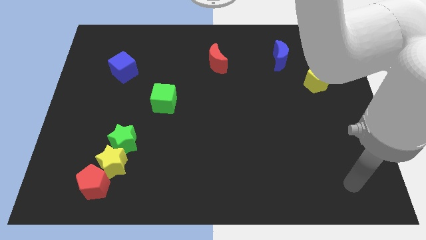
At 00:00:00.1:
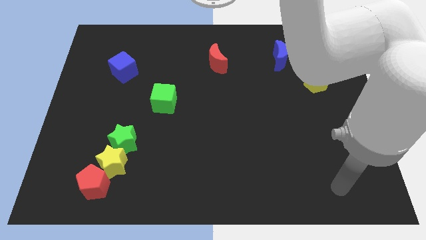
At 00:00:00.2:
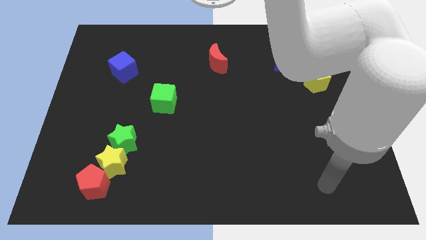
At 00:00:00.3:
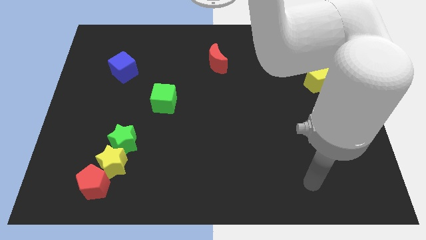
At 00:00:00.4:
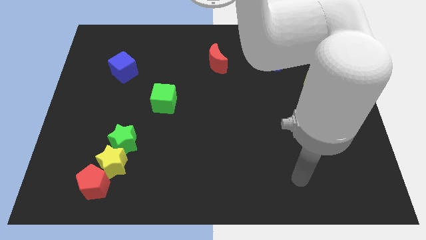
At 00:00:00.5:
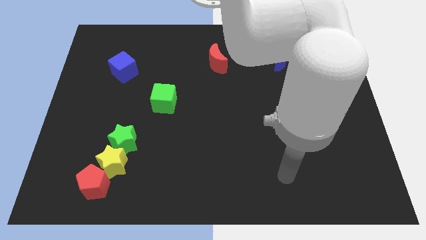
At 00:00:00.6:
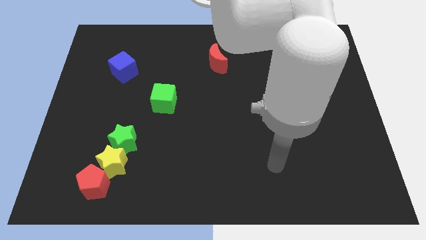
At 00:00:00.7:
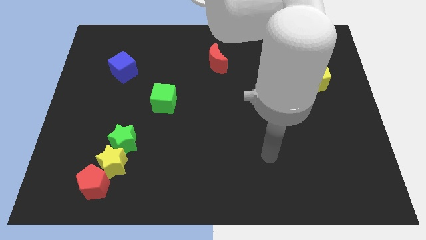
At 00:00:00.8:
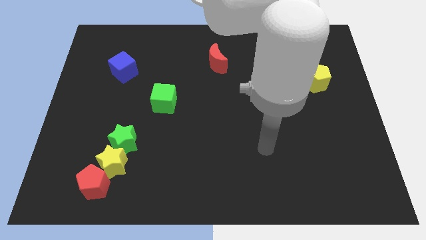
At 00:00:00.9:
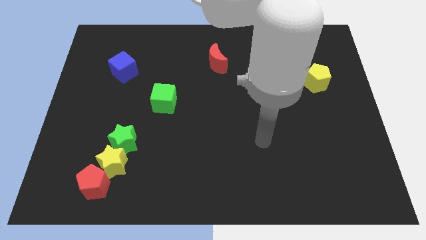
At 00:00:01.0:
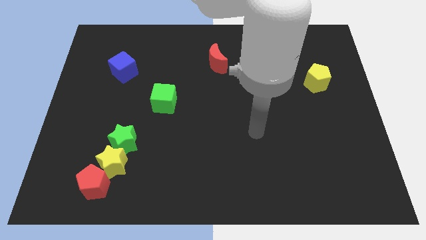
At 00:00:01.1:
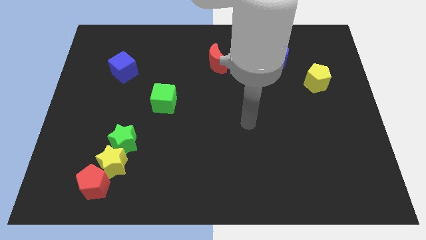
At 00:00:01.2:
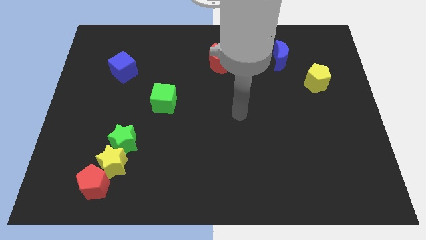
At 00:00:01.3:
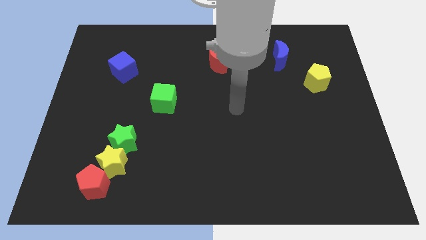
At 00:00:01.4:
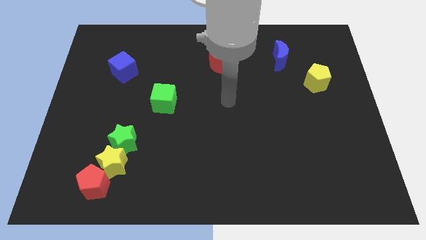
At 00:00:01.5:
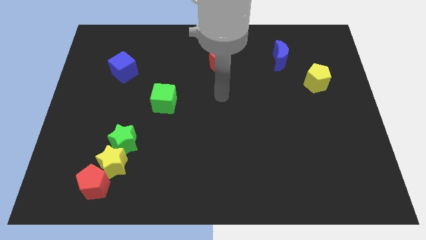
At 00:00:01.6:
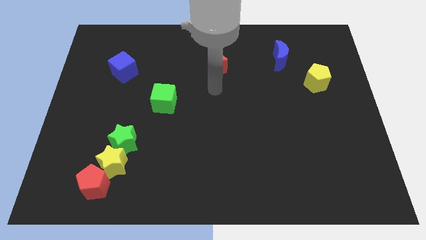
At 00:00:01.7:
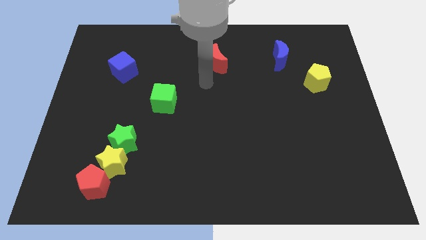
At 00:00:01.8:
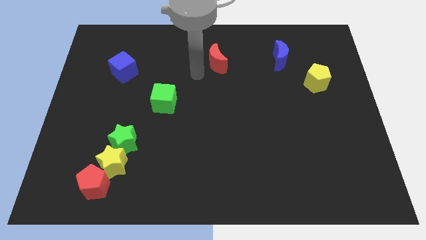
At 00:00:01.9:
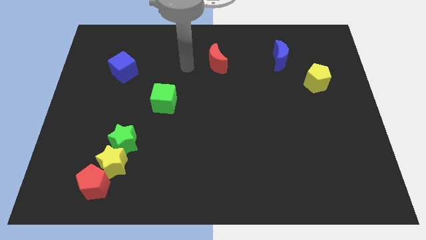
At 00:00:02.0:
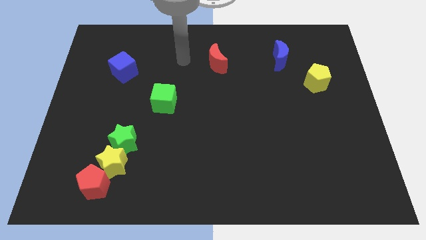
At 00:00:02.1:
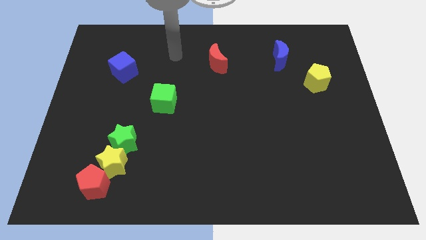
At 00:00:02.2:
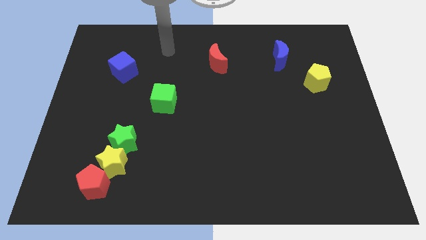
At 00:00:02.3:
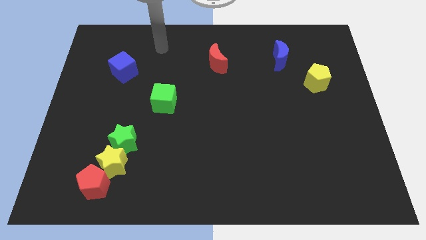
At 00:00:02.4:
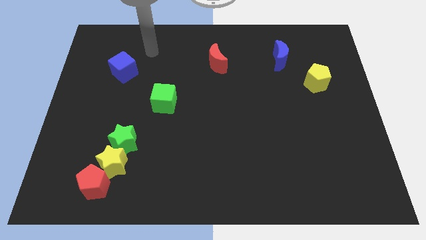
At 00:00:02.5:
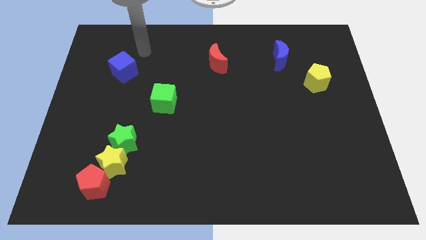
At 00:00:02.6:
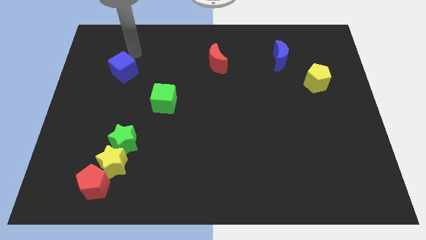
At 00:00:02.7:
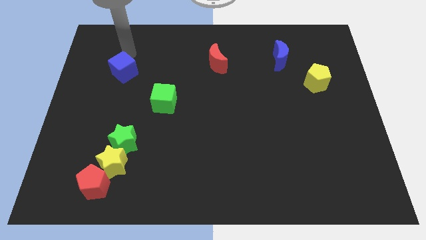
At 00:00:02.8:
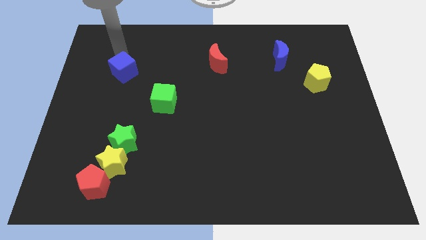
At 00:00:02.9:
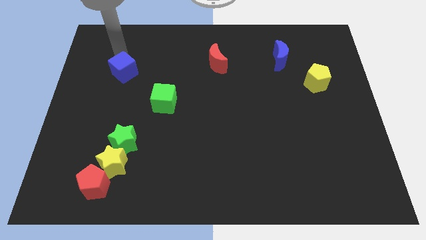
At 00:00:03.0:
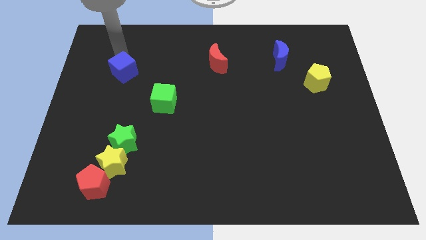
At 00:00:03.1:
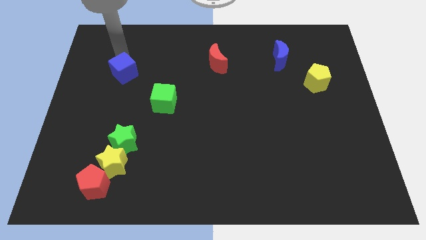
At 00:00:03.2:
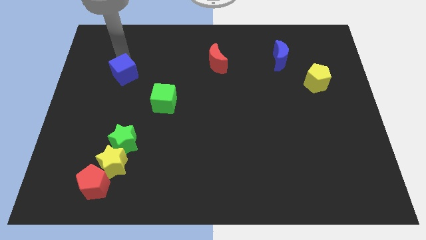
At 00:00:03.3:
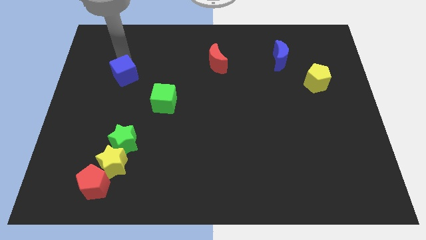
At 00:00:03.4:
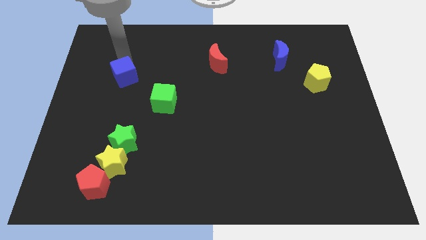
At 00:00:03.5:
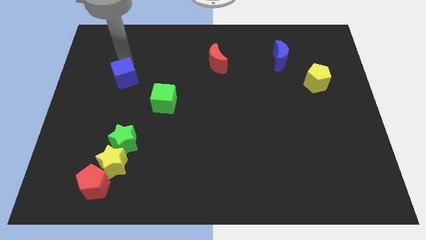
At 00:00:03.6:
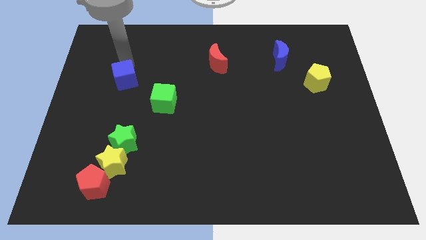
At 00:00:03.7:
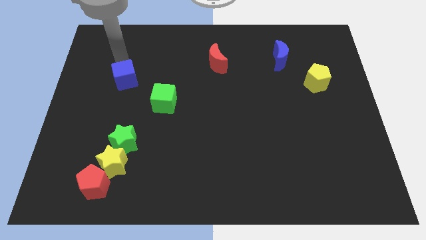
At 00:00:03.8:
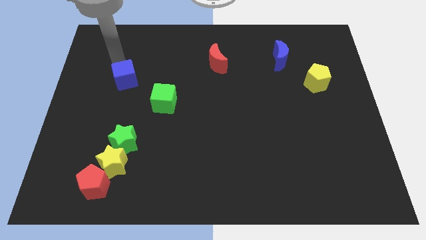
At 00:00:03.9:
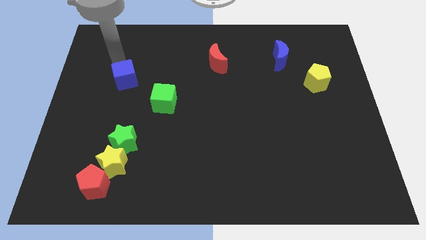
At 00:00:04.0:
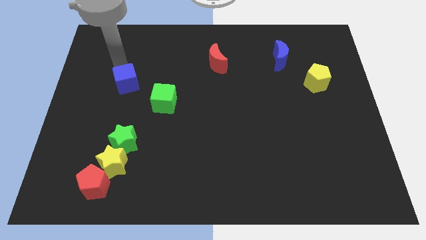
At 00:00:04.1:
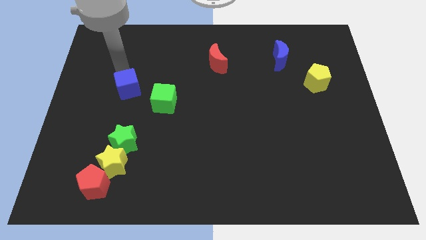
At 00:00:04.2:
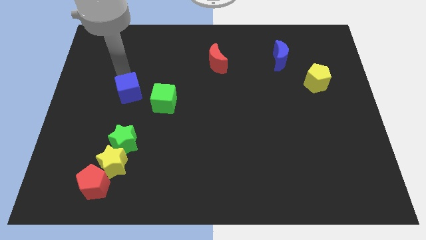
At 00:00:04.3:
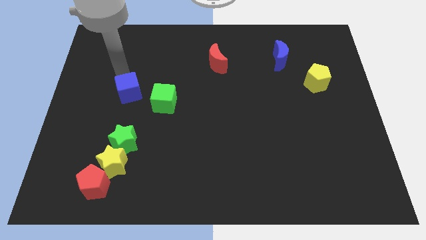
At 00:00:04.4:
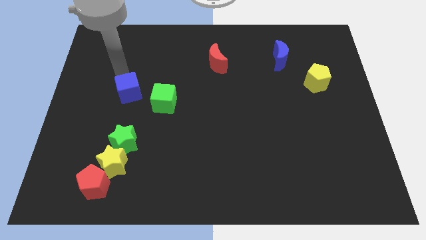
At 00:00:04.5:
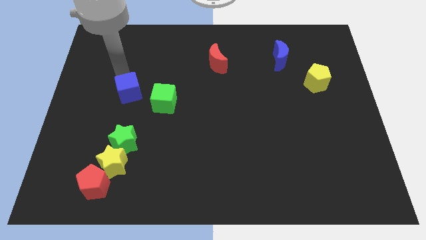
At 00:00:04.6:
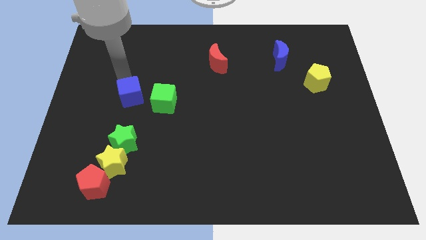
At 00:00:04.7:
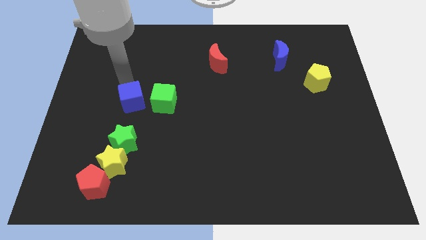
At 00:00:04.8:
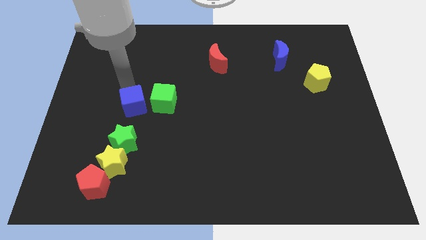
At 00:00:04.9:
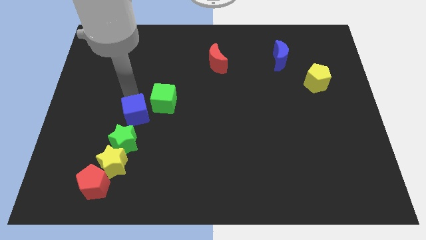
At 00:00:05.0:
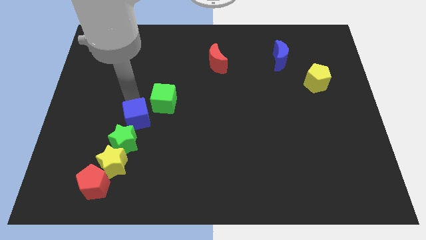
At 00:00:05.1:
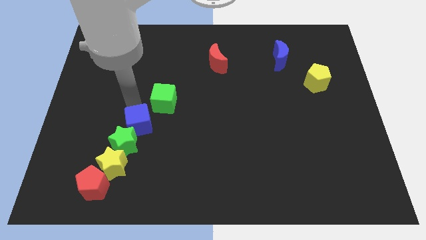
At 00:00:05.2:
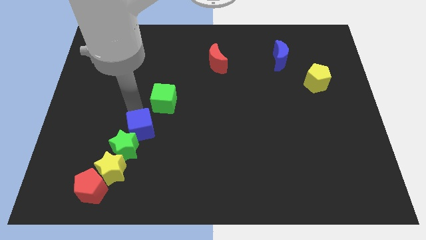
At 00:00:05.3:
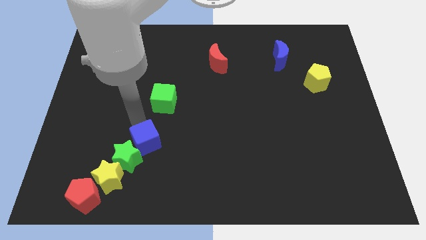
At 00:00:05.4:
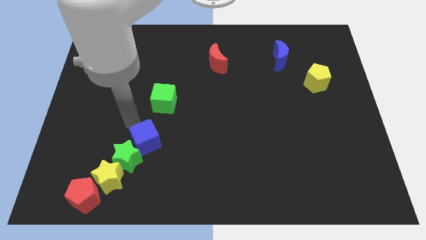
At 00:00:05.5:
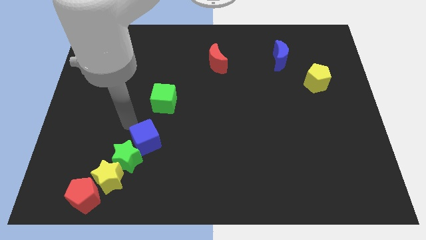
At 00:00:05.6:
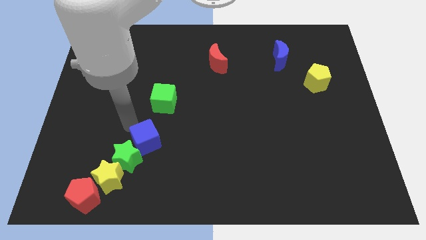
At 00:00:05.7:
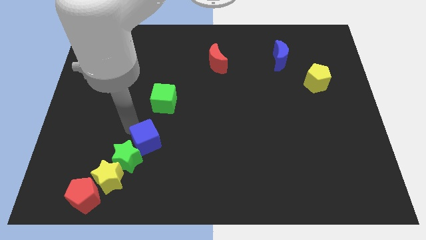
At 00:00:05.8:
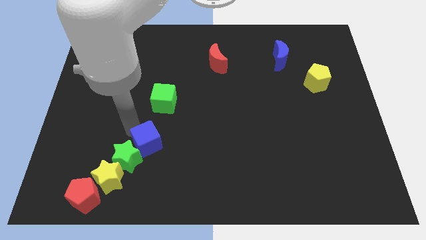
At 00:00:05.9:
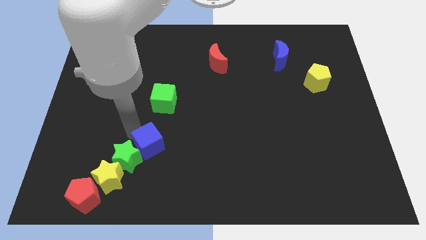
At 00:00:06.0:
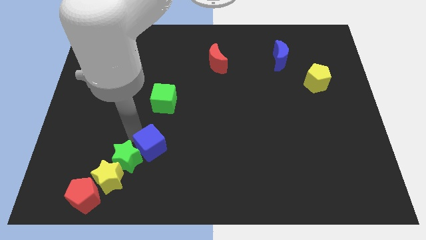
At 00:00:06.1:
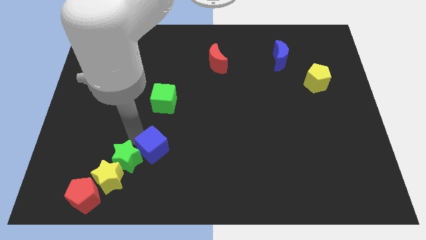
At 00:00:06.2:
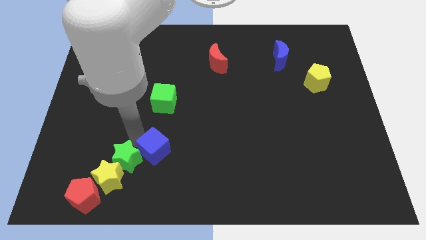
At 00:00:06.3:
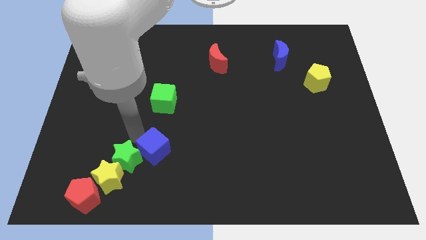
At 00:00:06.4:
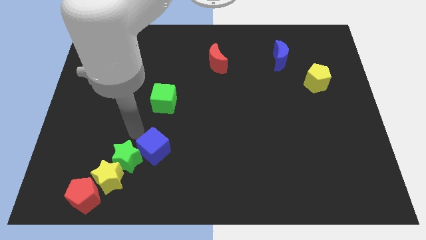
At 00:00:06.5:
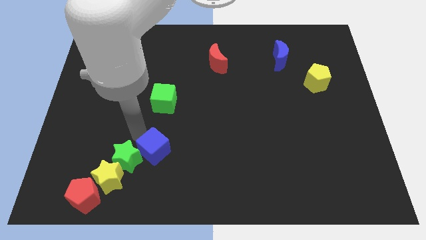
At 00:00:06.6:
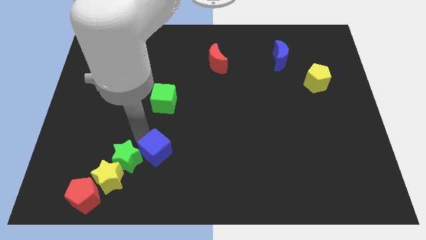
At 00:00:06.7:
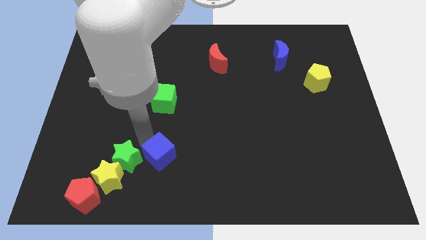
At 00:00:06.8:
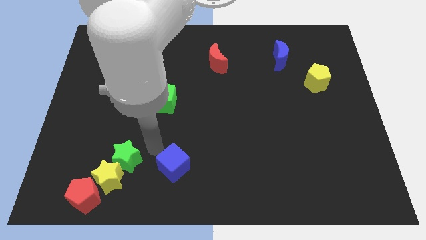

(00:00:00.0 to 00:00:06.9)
slide the blue cube to the bottom
